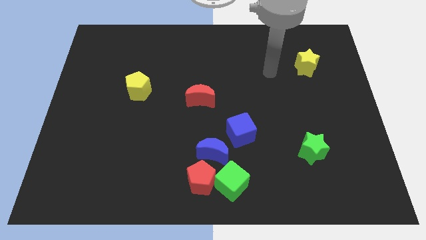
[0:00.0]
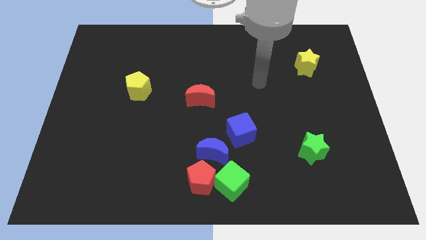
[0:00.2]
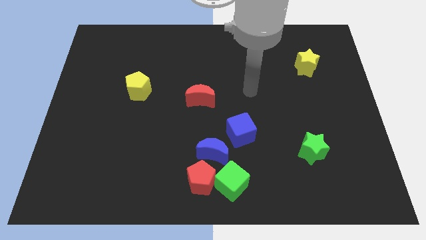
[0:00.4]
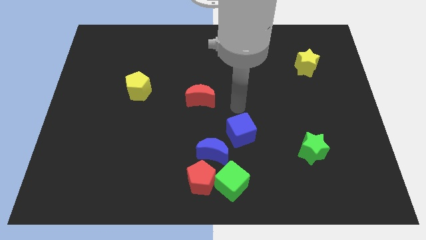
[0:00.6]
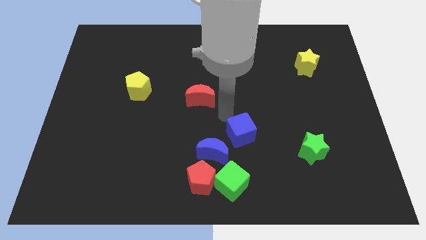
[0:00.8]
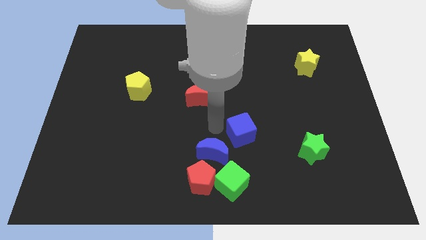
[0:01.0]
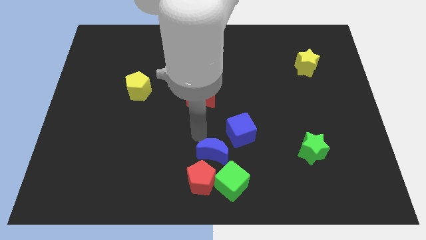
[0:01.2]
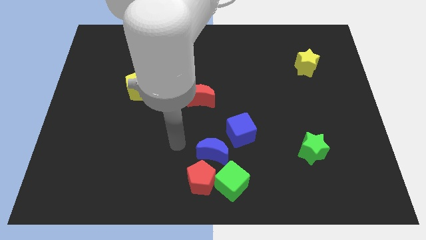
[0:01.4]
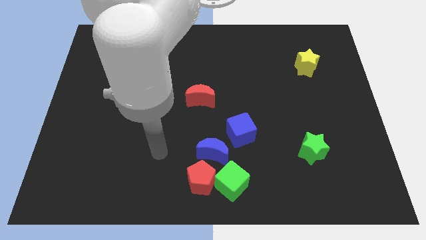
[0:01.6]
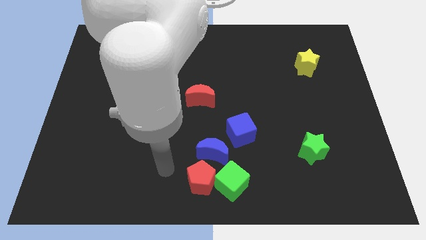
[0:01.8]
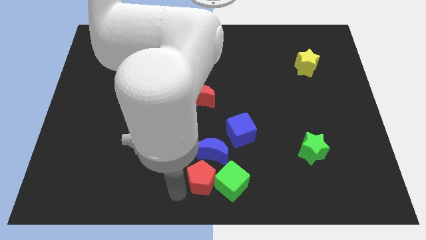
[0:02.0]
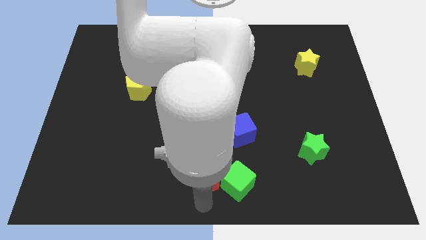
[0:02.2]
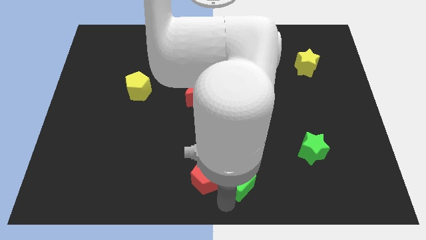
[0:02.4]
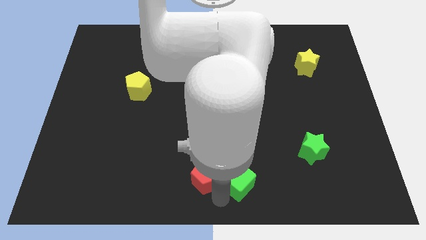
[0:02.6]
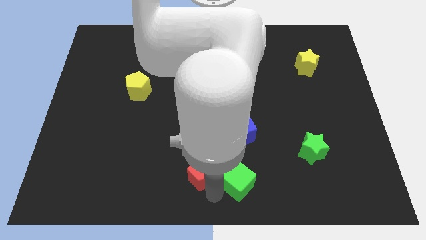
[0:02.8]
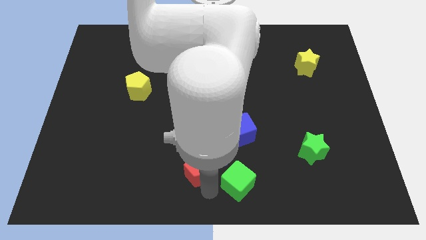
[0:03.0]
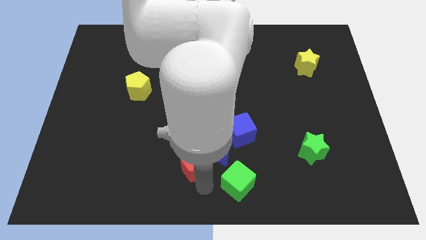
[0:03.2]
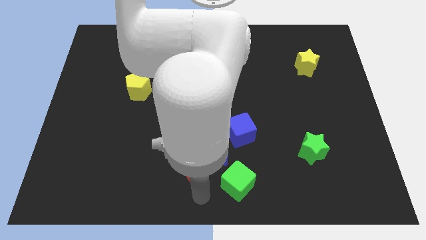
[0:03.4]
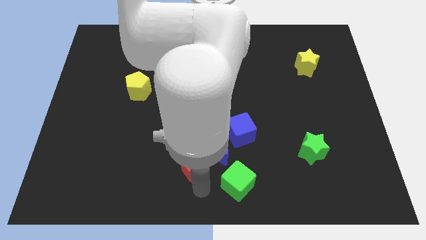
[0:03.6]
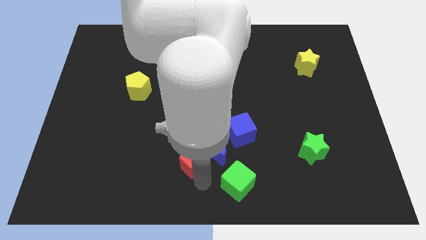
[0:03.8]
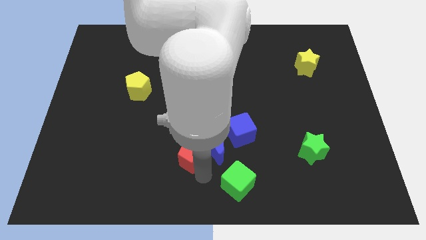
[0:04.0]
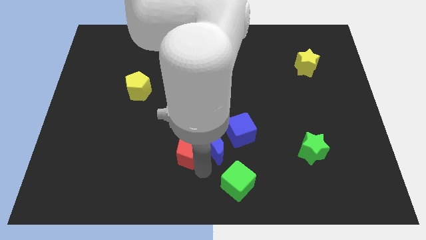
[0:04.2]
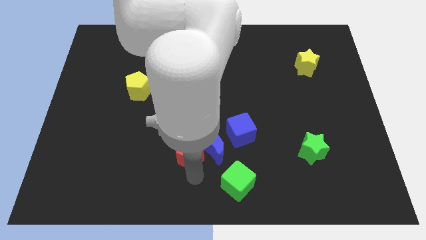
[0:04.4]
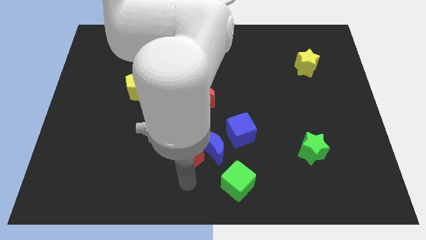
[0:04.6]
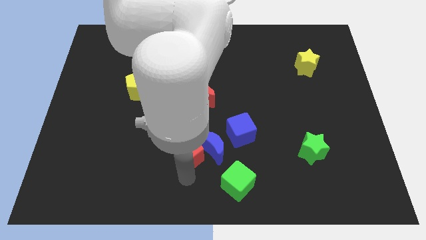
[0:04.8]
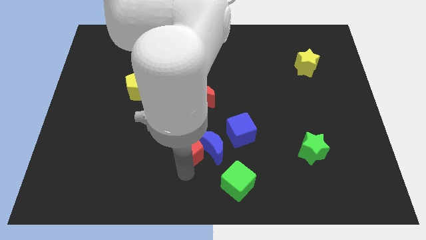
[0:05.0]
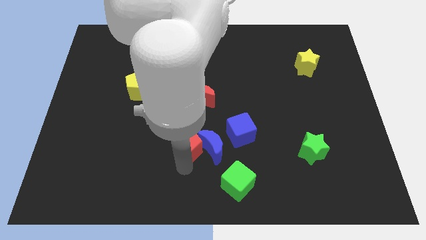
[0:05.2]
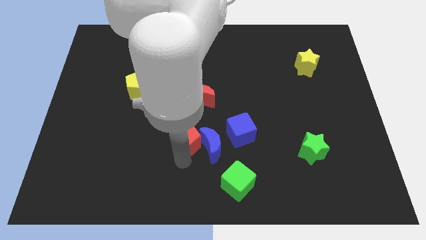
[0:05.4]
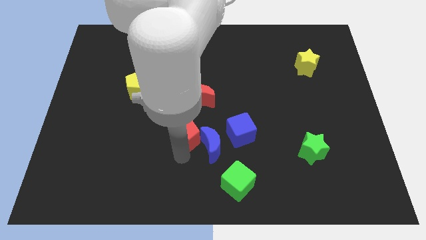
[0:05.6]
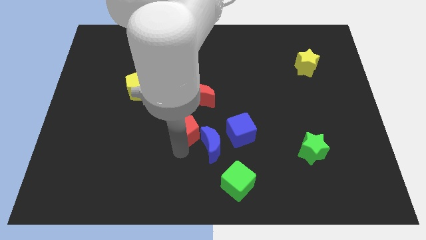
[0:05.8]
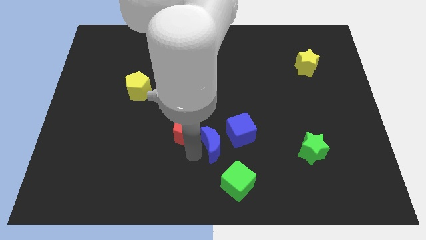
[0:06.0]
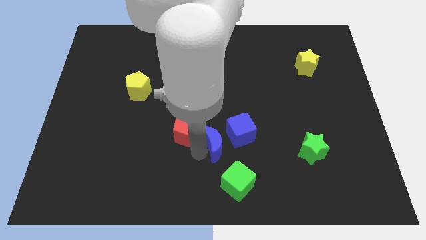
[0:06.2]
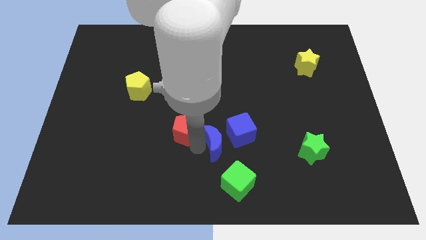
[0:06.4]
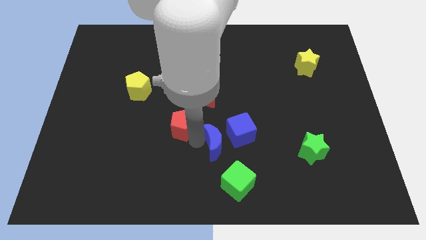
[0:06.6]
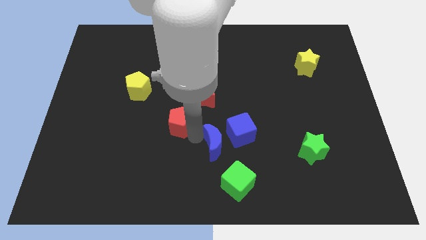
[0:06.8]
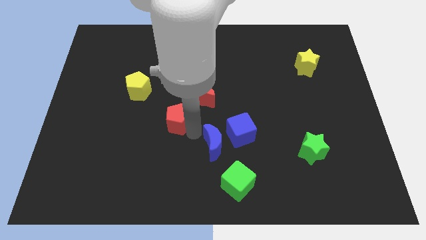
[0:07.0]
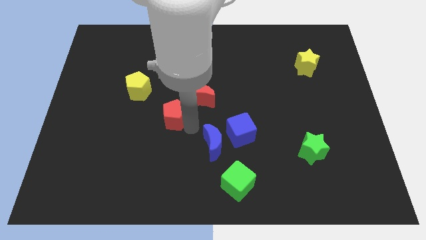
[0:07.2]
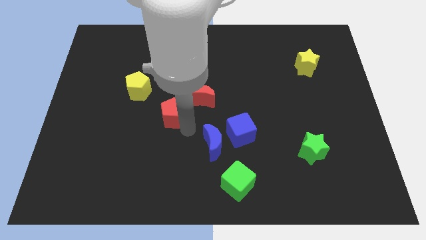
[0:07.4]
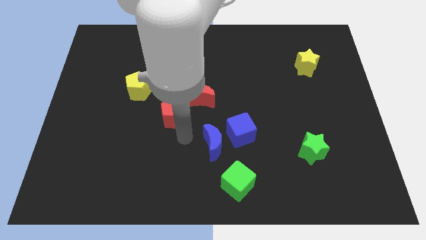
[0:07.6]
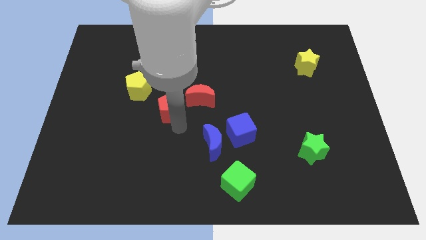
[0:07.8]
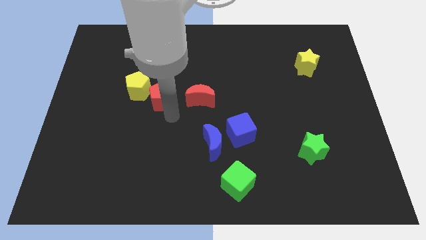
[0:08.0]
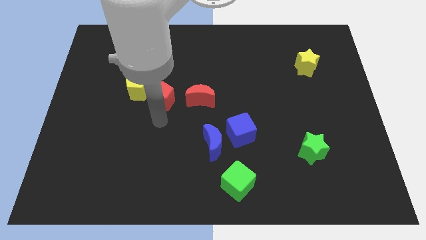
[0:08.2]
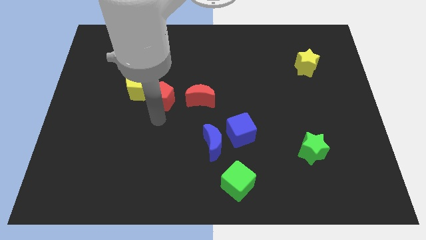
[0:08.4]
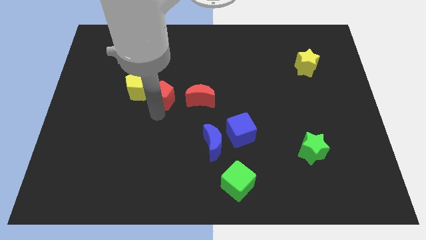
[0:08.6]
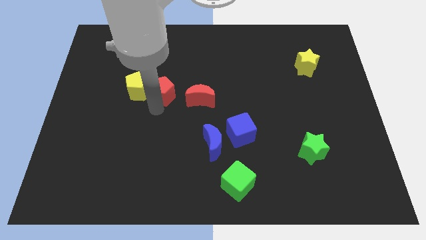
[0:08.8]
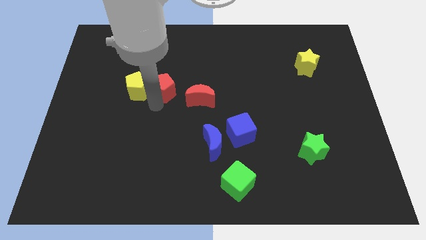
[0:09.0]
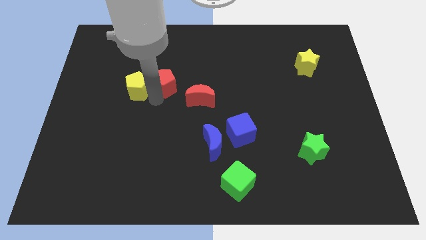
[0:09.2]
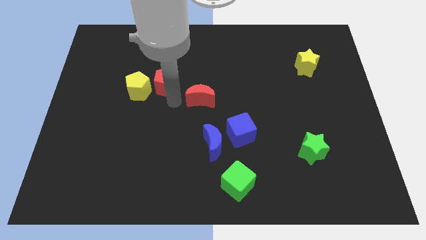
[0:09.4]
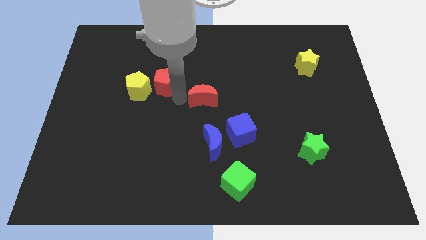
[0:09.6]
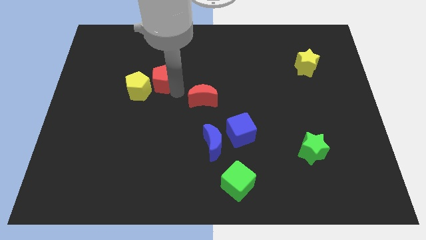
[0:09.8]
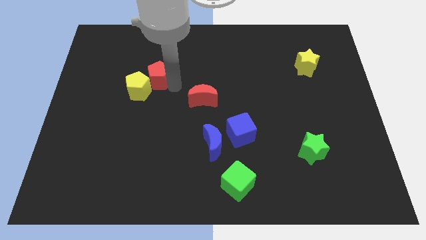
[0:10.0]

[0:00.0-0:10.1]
slide the red pentagon to the top side of the yellow pentagon

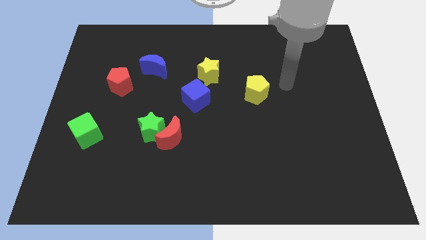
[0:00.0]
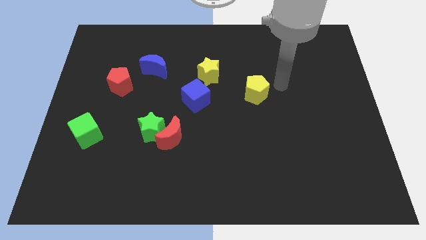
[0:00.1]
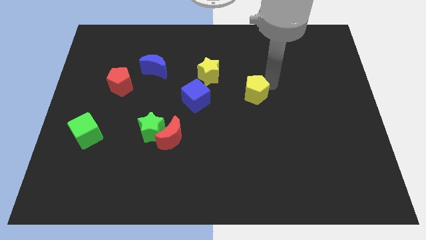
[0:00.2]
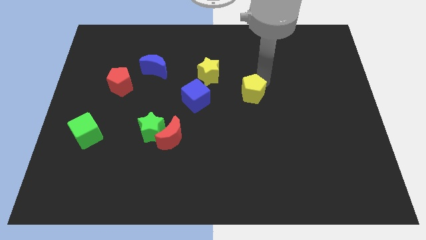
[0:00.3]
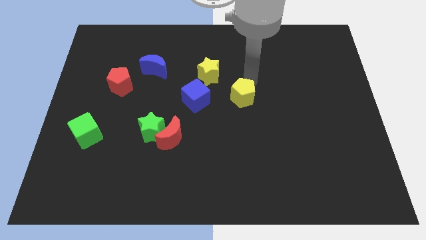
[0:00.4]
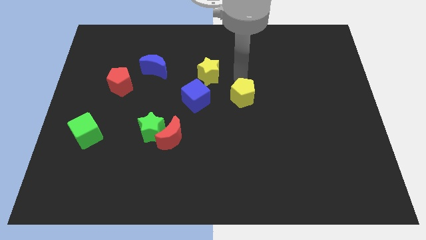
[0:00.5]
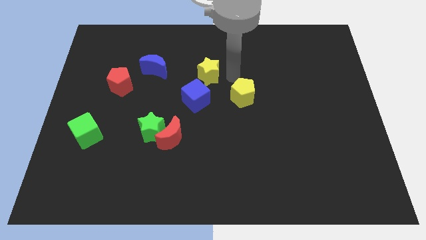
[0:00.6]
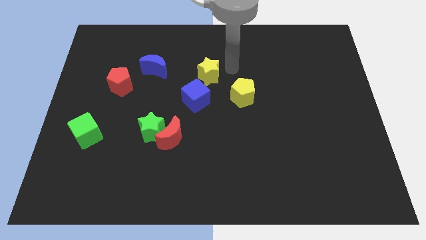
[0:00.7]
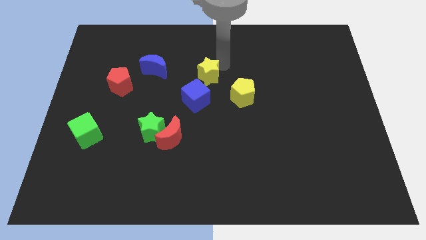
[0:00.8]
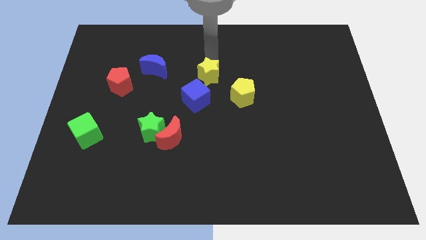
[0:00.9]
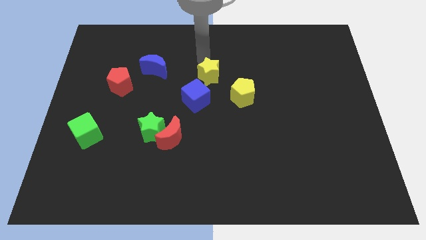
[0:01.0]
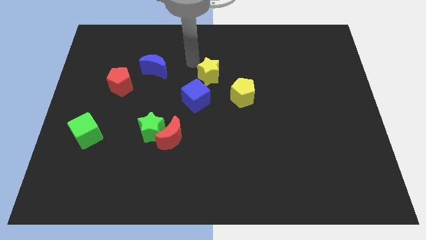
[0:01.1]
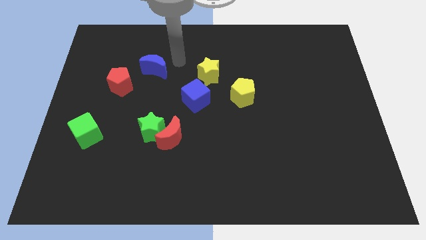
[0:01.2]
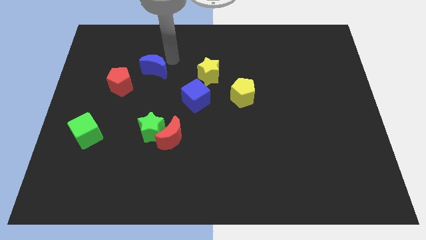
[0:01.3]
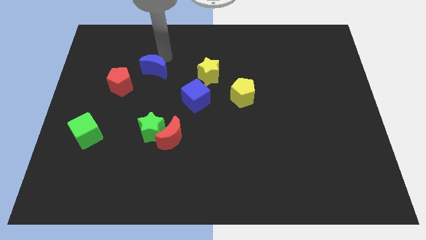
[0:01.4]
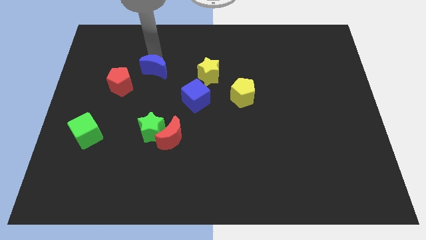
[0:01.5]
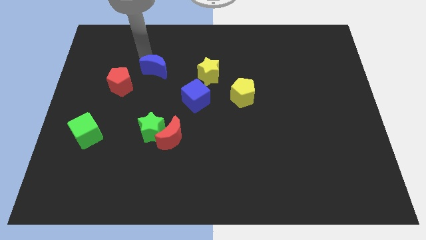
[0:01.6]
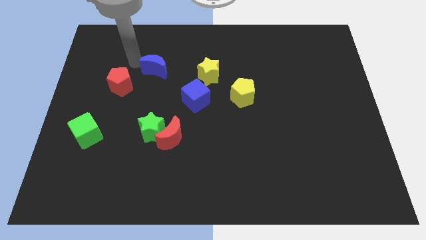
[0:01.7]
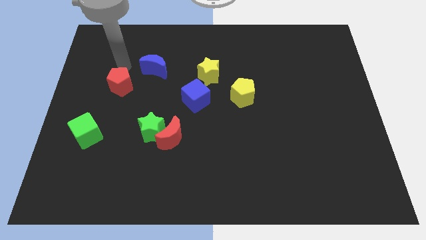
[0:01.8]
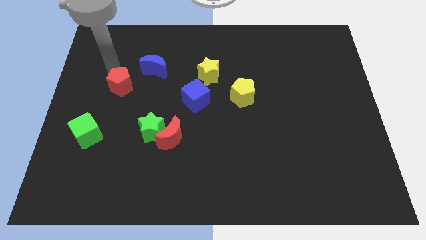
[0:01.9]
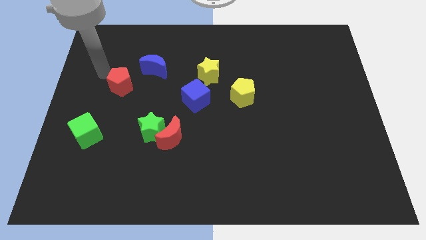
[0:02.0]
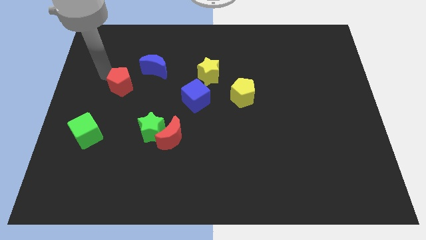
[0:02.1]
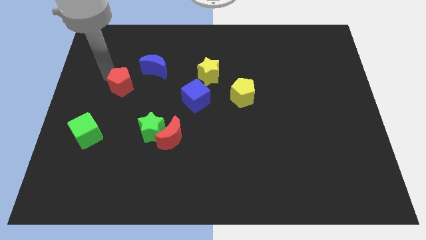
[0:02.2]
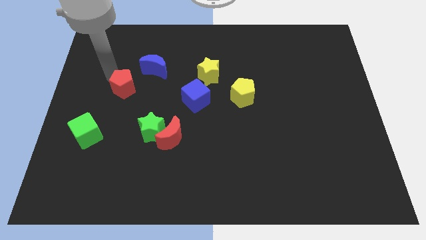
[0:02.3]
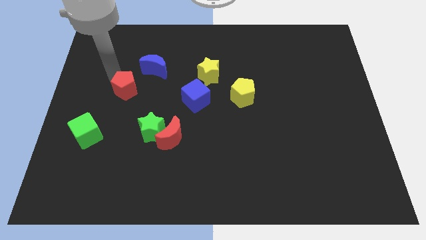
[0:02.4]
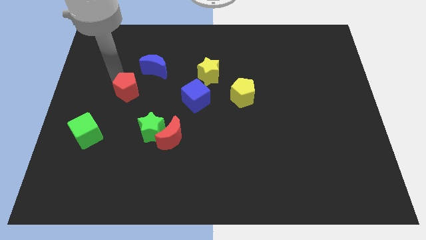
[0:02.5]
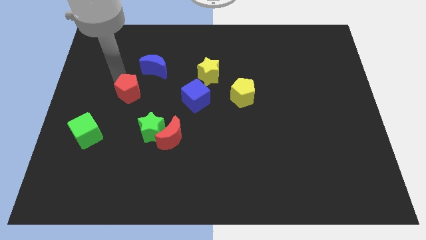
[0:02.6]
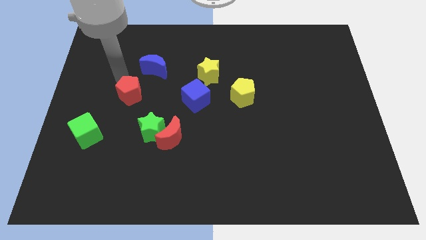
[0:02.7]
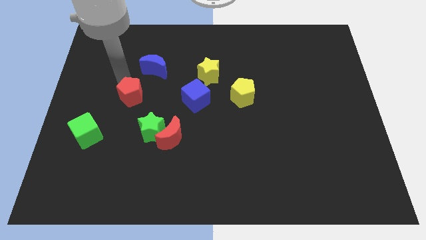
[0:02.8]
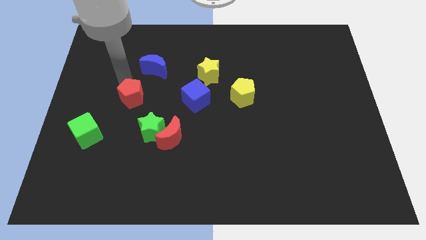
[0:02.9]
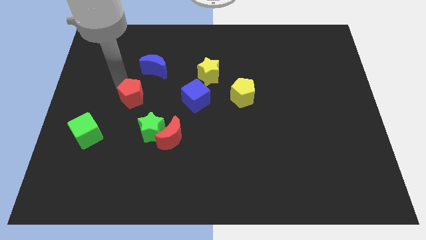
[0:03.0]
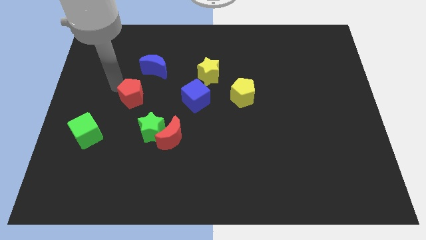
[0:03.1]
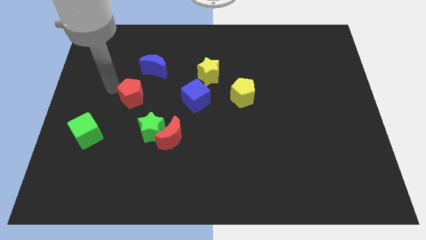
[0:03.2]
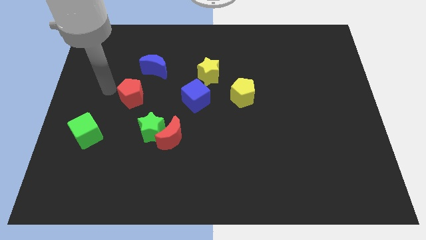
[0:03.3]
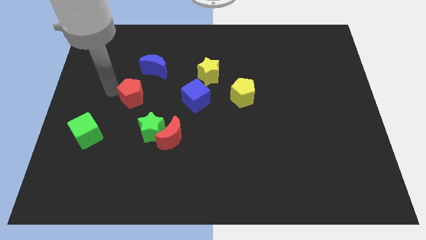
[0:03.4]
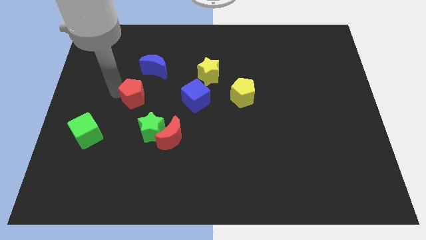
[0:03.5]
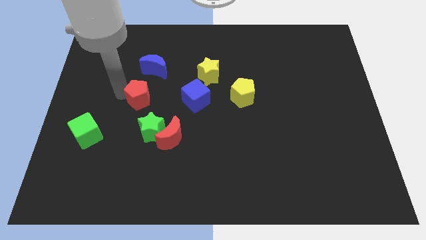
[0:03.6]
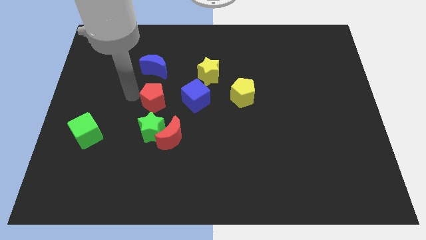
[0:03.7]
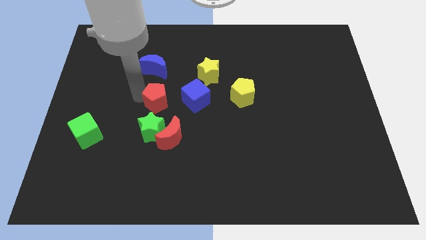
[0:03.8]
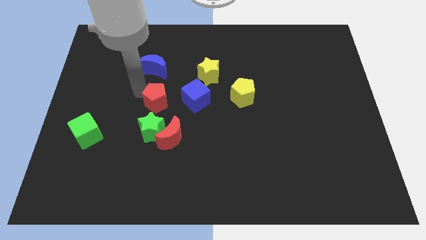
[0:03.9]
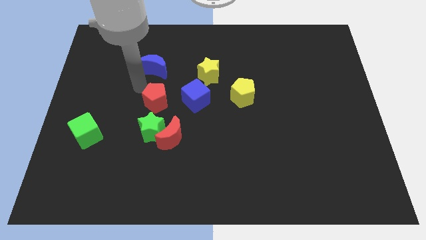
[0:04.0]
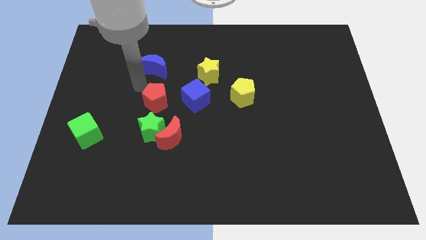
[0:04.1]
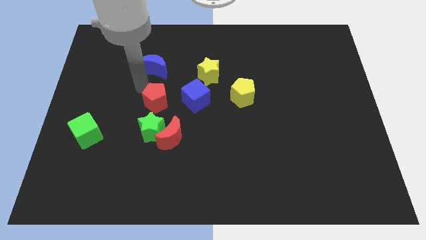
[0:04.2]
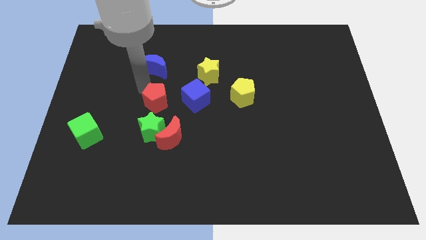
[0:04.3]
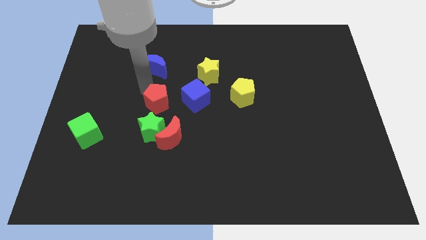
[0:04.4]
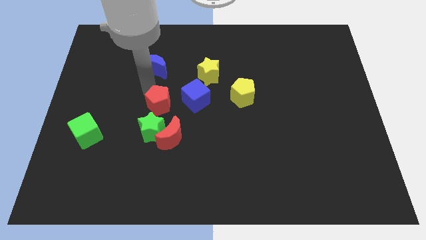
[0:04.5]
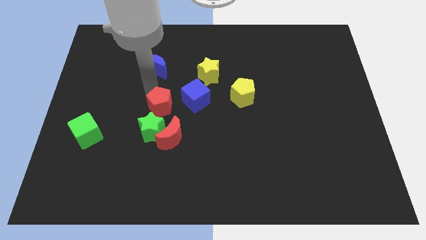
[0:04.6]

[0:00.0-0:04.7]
push the red pentagon to the bottom left side of the blue cube
